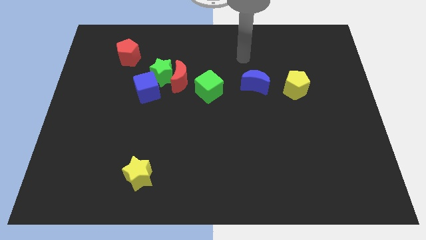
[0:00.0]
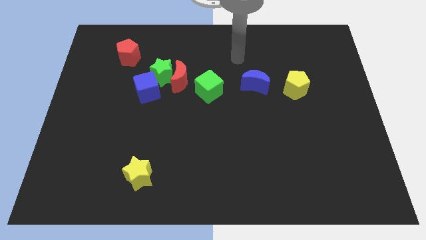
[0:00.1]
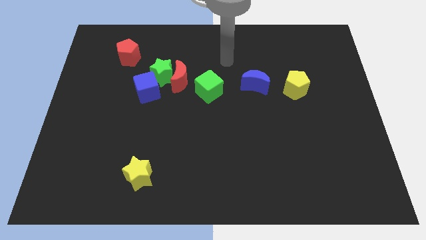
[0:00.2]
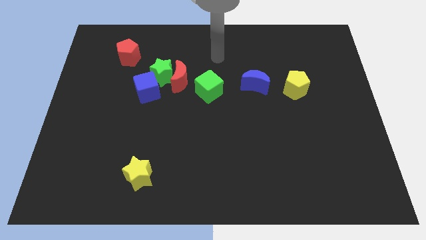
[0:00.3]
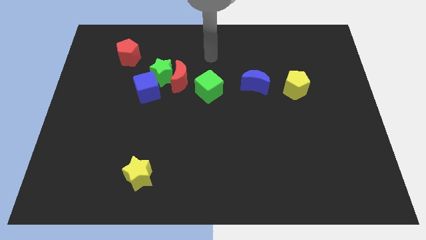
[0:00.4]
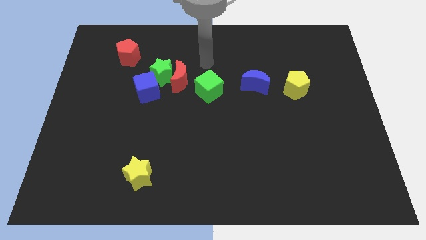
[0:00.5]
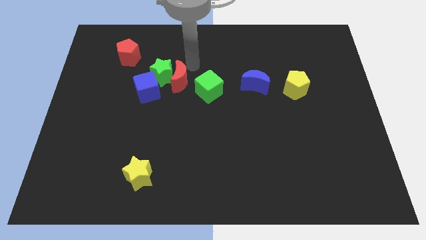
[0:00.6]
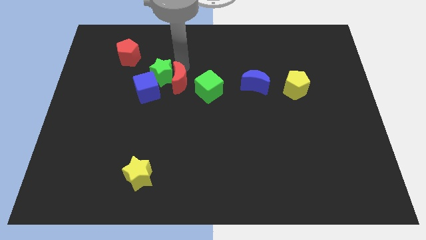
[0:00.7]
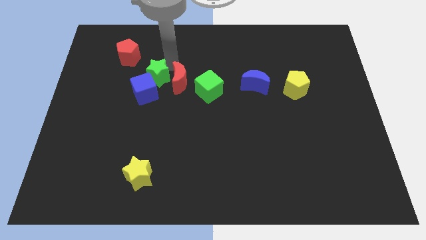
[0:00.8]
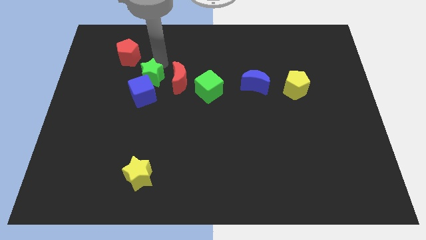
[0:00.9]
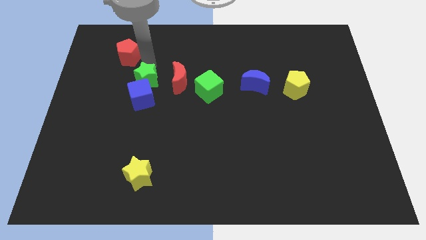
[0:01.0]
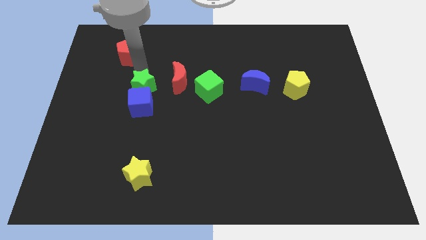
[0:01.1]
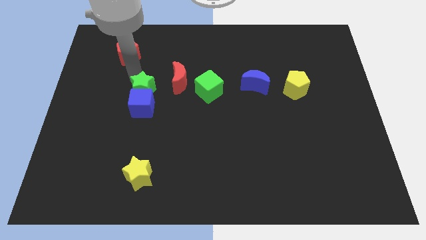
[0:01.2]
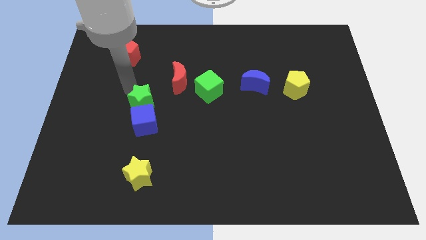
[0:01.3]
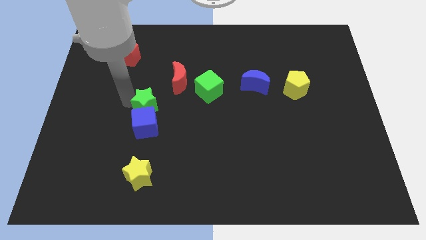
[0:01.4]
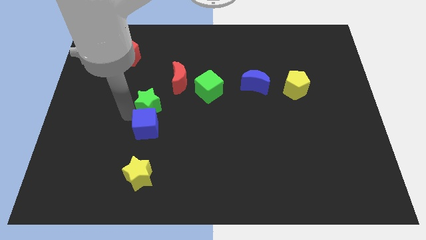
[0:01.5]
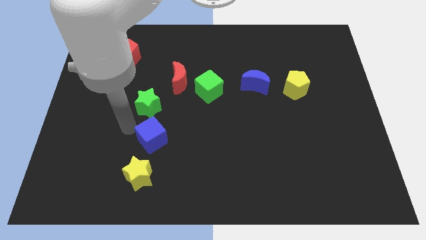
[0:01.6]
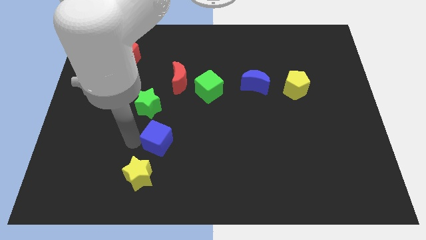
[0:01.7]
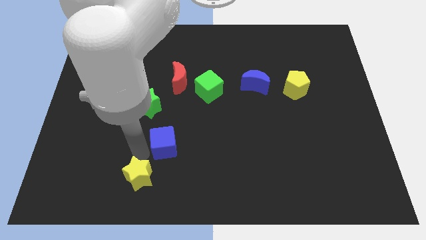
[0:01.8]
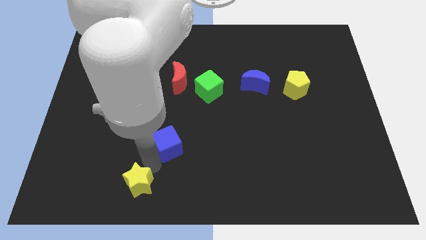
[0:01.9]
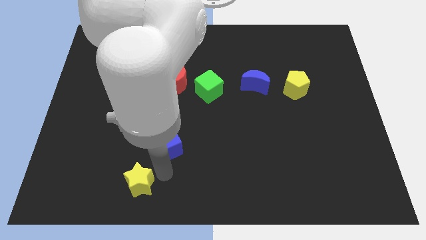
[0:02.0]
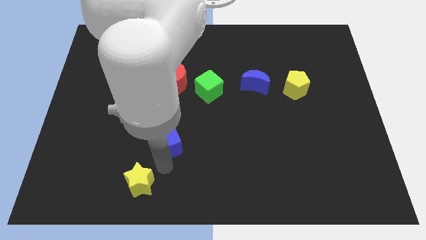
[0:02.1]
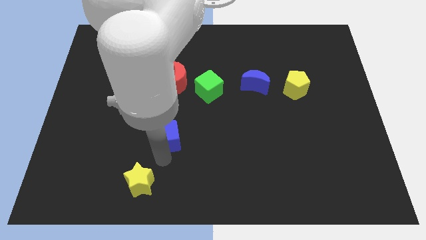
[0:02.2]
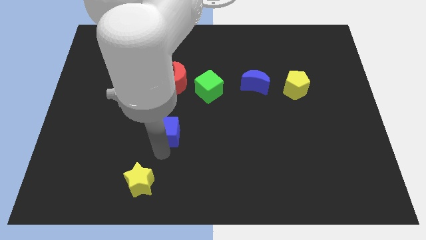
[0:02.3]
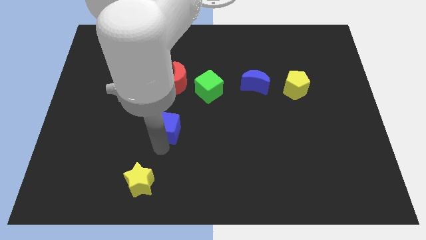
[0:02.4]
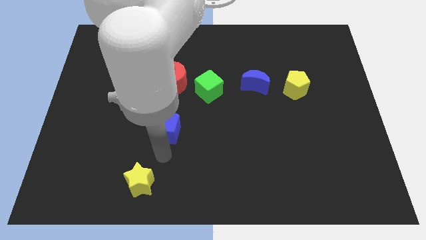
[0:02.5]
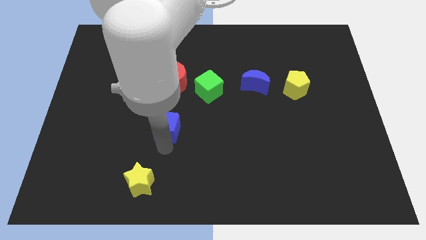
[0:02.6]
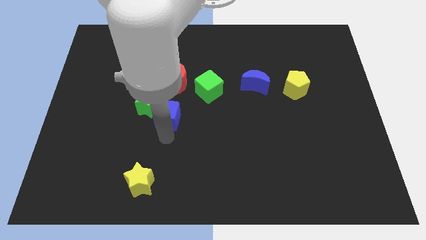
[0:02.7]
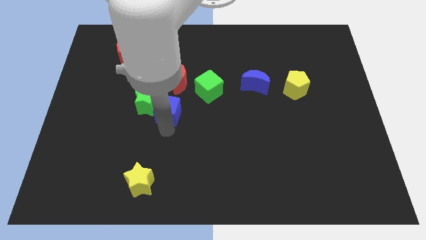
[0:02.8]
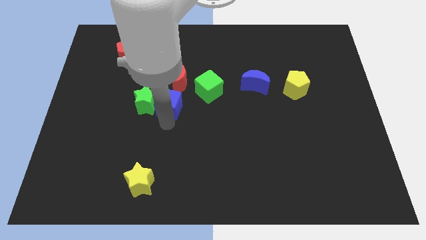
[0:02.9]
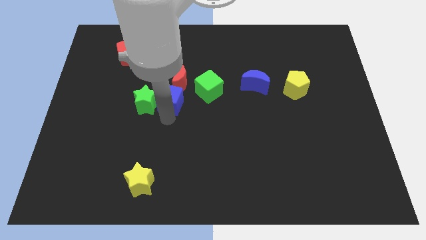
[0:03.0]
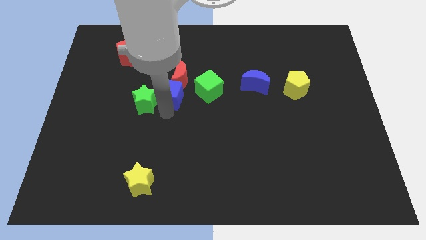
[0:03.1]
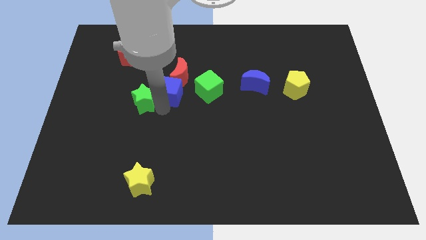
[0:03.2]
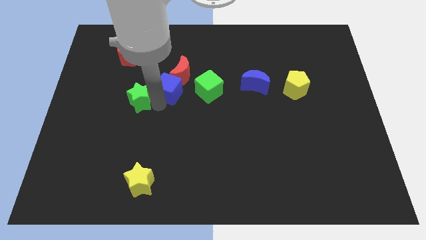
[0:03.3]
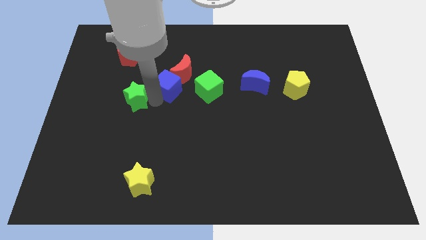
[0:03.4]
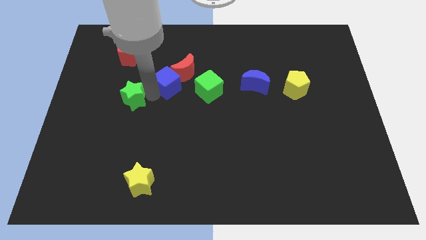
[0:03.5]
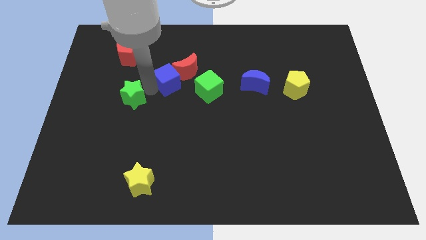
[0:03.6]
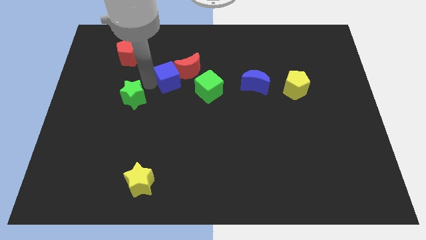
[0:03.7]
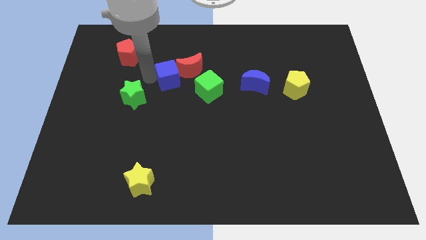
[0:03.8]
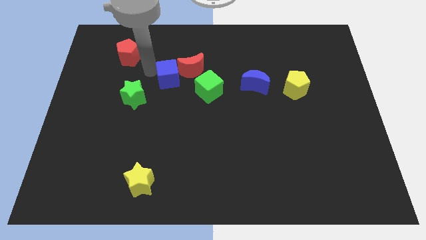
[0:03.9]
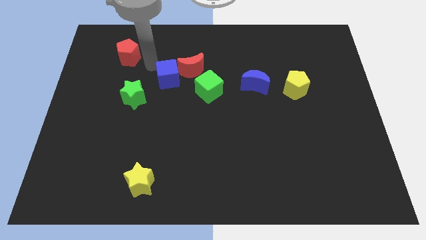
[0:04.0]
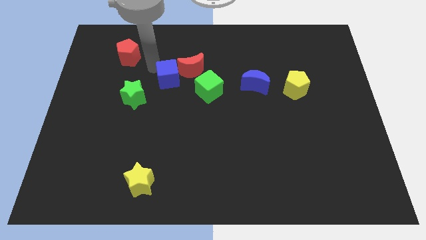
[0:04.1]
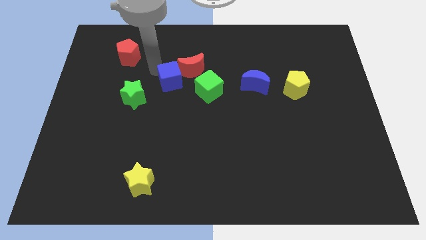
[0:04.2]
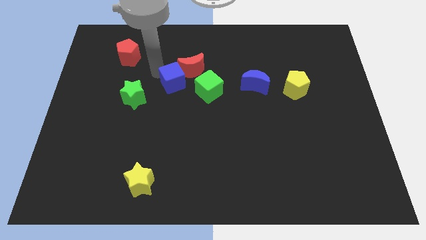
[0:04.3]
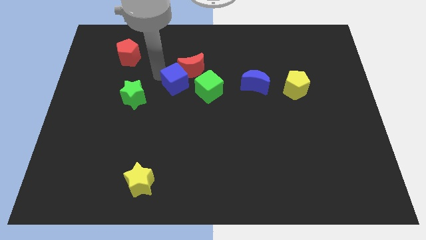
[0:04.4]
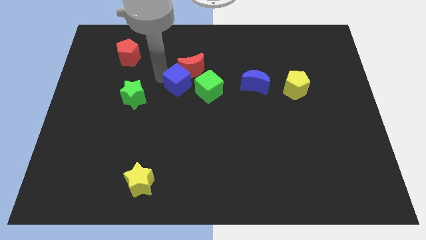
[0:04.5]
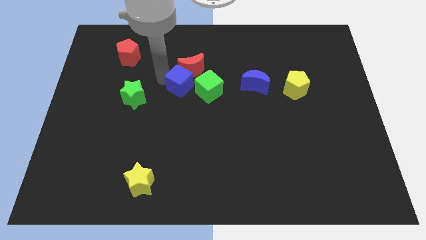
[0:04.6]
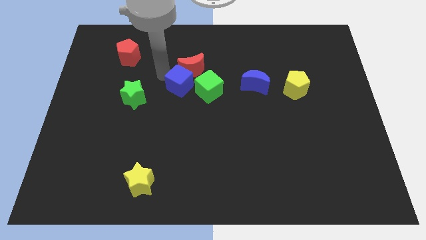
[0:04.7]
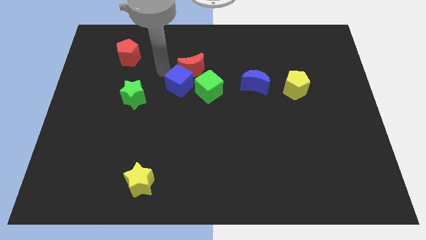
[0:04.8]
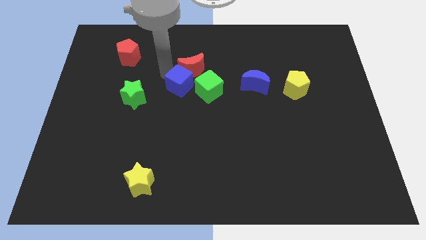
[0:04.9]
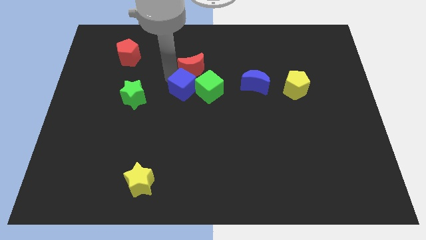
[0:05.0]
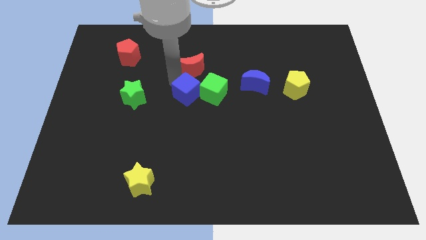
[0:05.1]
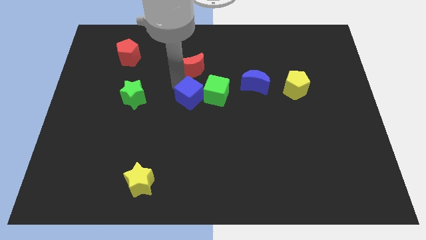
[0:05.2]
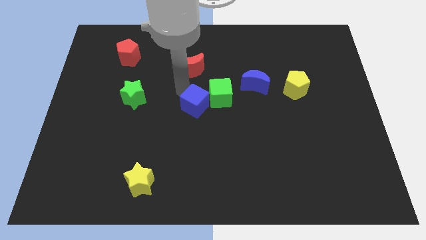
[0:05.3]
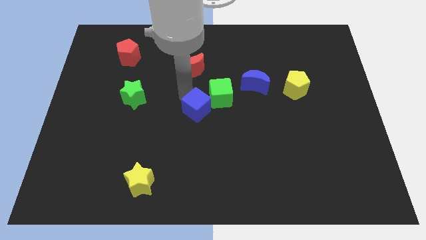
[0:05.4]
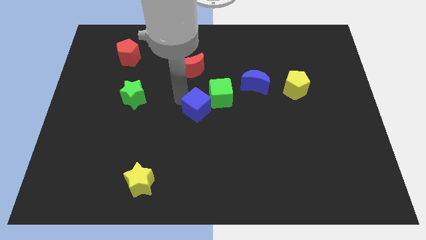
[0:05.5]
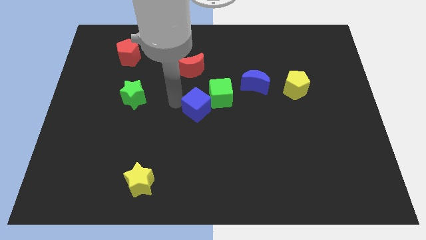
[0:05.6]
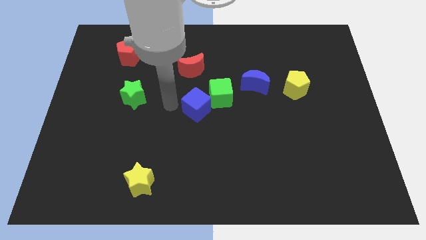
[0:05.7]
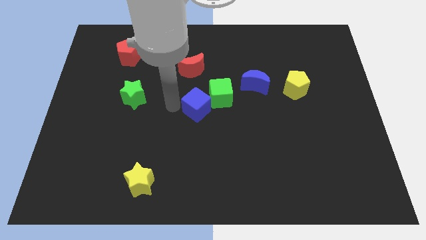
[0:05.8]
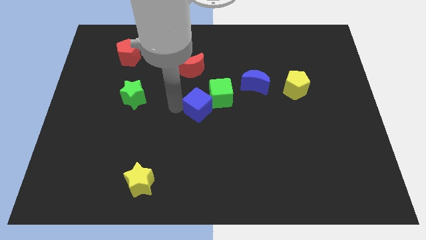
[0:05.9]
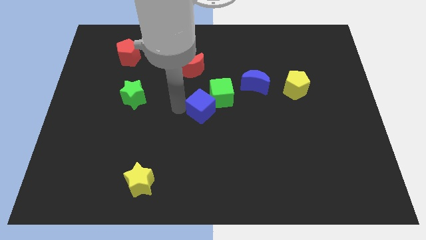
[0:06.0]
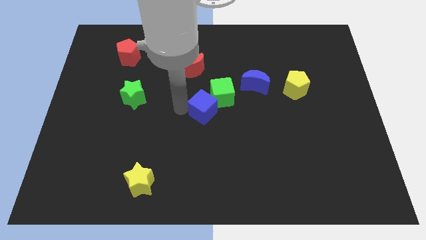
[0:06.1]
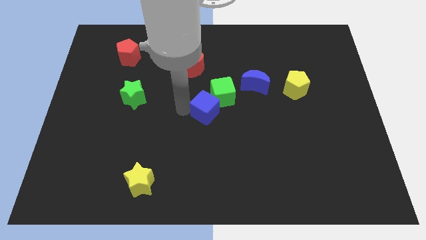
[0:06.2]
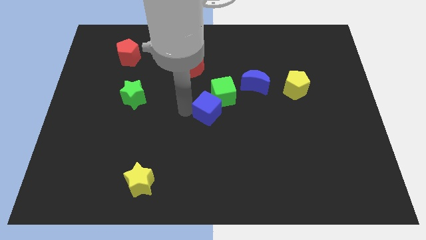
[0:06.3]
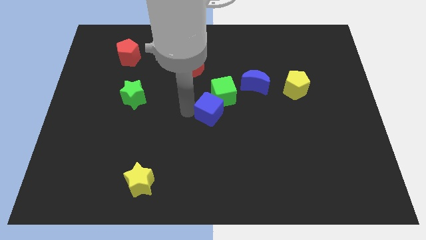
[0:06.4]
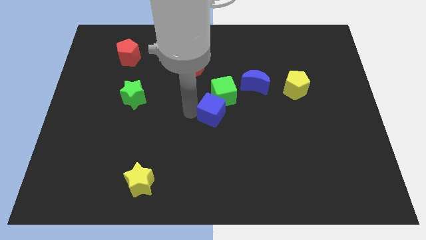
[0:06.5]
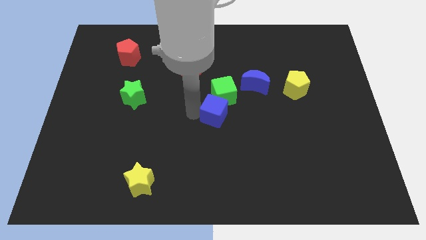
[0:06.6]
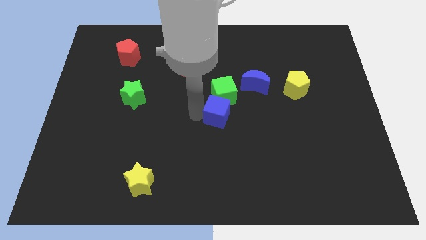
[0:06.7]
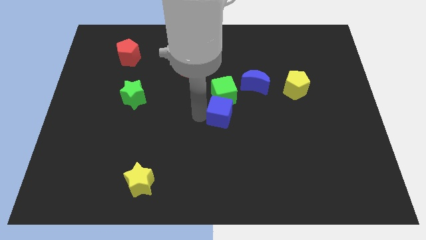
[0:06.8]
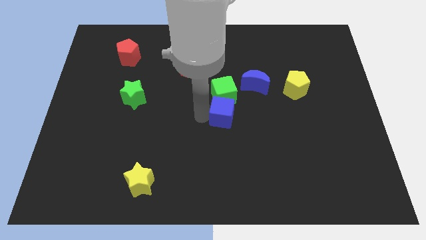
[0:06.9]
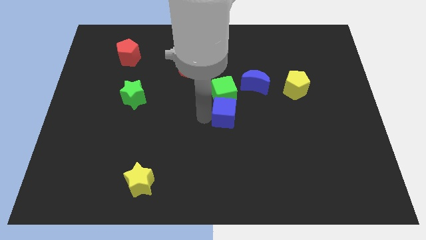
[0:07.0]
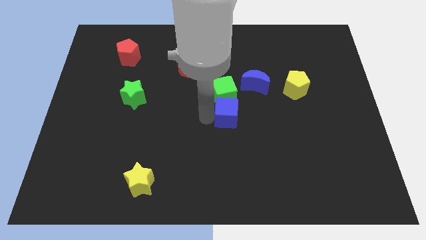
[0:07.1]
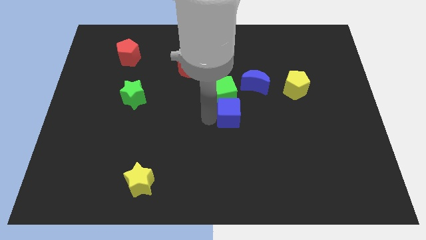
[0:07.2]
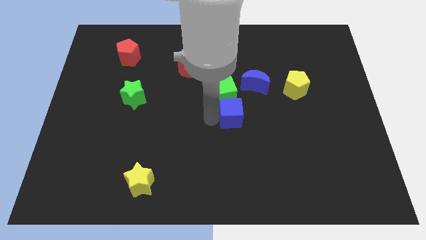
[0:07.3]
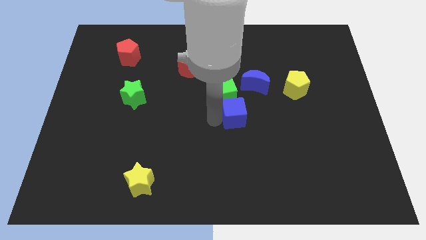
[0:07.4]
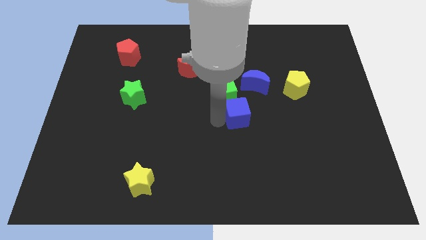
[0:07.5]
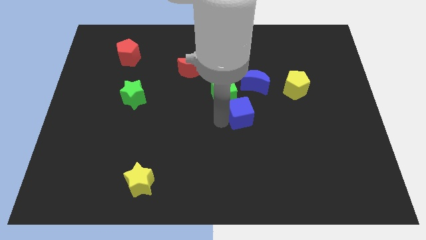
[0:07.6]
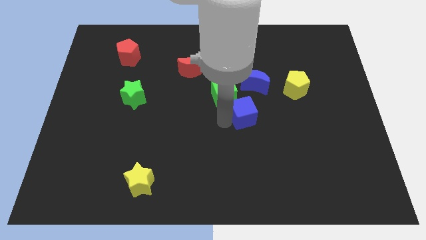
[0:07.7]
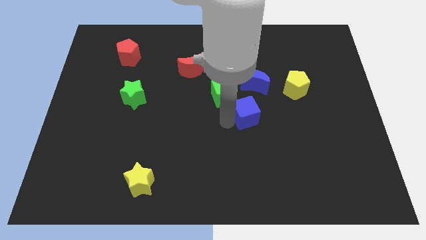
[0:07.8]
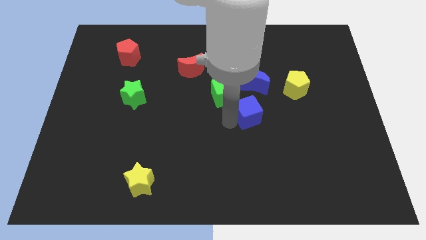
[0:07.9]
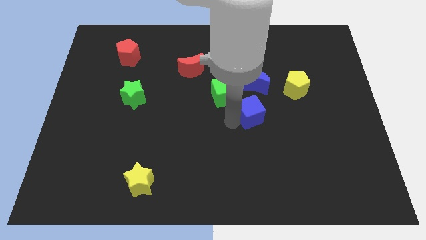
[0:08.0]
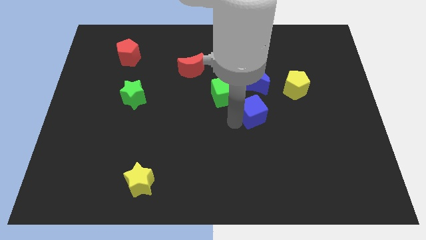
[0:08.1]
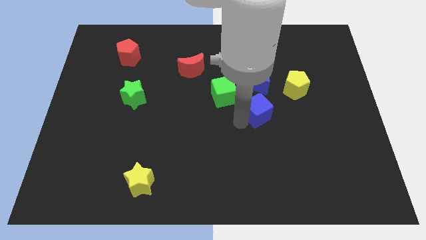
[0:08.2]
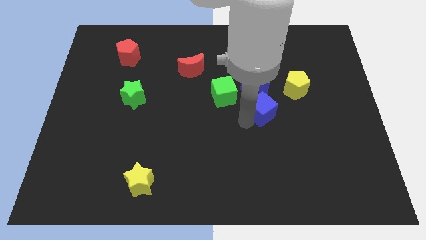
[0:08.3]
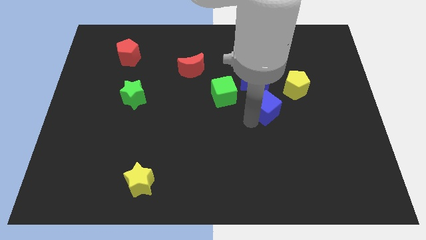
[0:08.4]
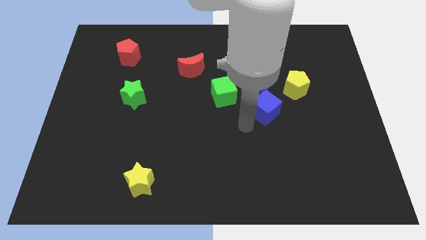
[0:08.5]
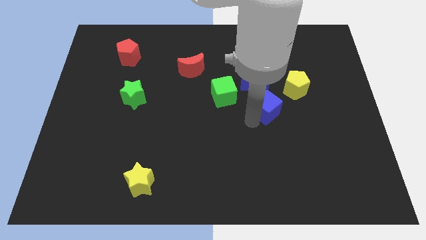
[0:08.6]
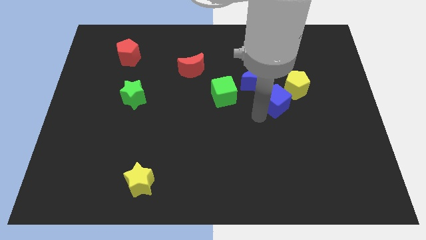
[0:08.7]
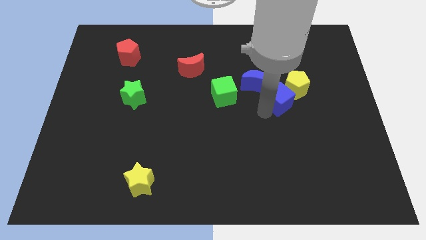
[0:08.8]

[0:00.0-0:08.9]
slide the blue cube next to the yellow pentagon
